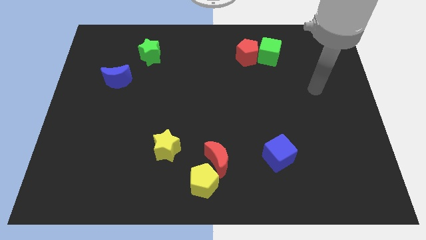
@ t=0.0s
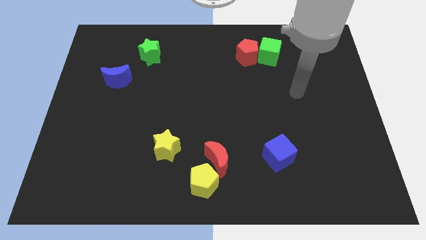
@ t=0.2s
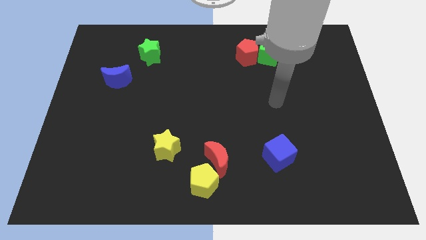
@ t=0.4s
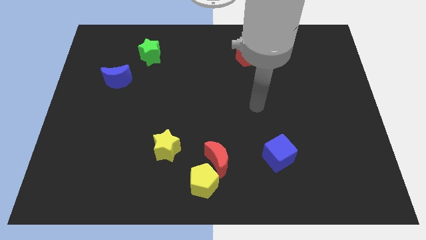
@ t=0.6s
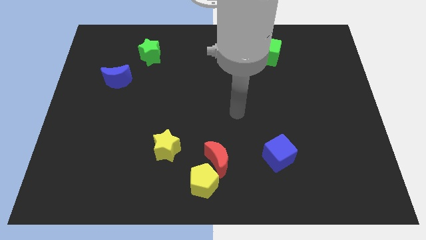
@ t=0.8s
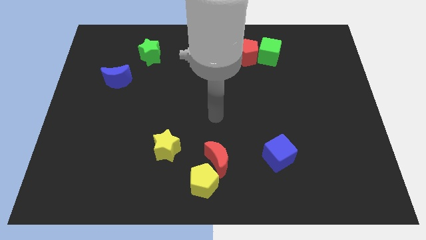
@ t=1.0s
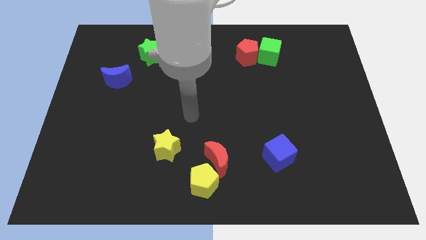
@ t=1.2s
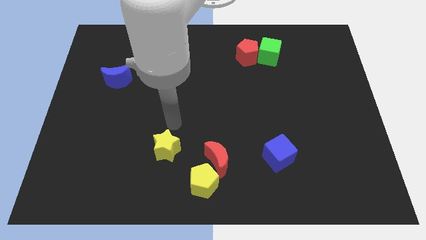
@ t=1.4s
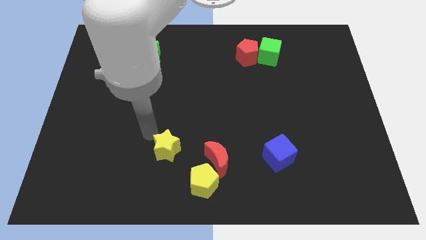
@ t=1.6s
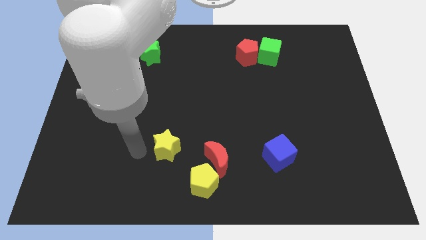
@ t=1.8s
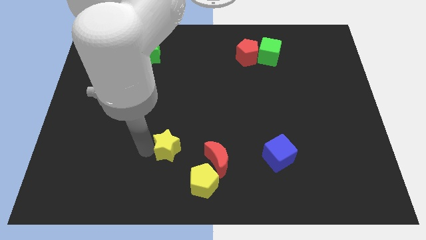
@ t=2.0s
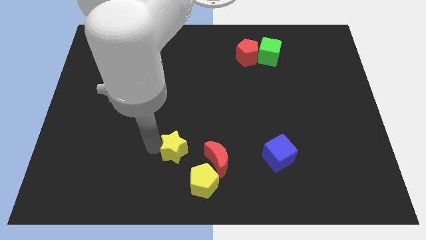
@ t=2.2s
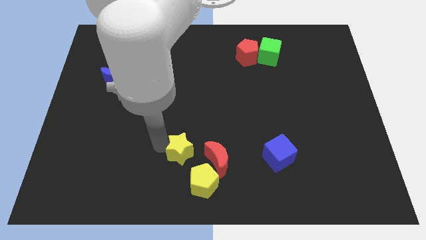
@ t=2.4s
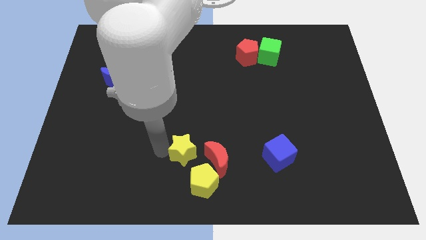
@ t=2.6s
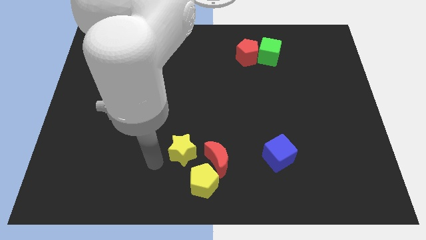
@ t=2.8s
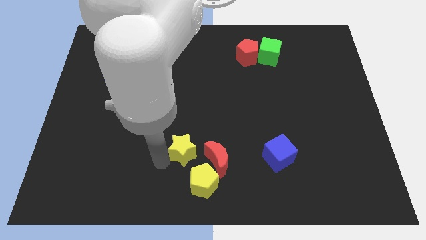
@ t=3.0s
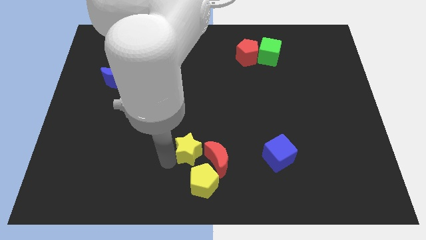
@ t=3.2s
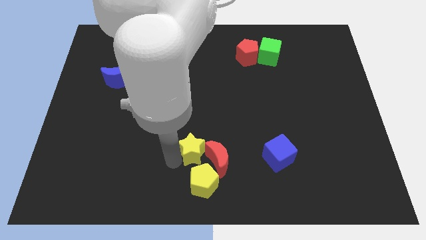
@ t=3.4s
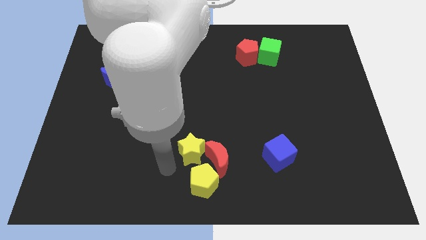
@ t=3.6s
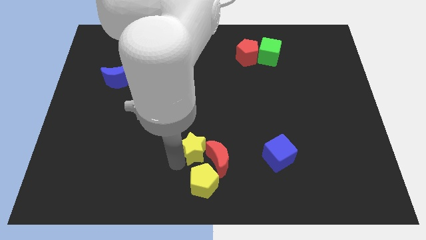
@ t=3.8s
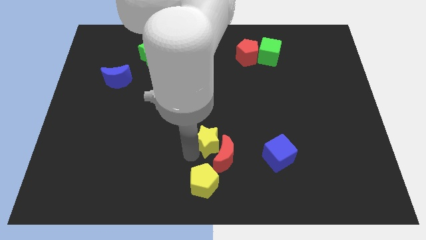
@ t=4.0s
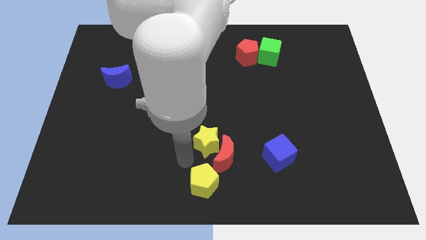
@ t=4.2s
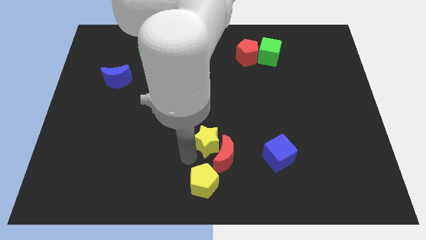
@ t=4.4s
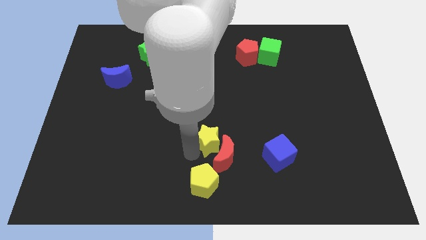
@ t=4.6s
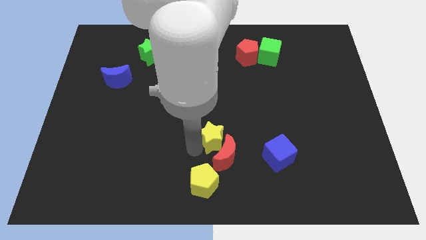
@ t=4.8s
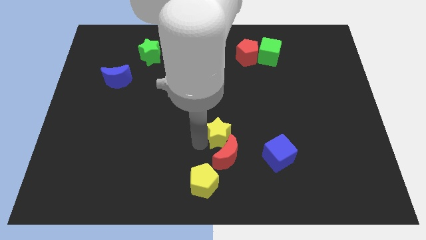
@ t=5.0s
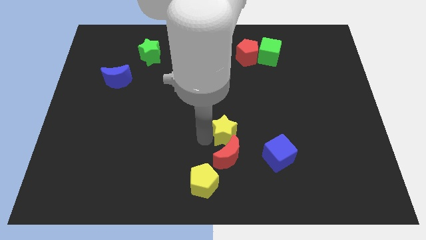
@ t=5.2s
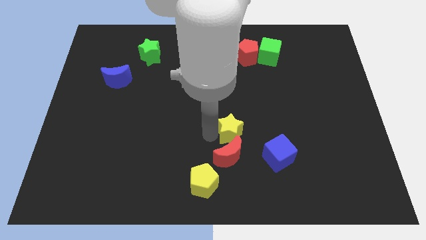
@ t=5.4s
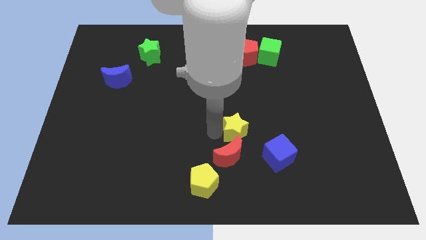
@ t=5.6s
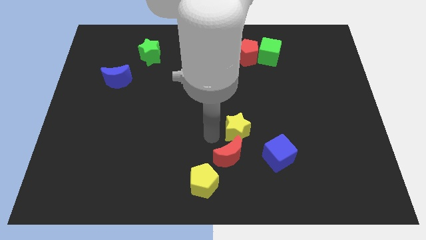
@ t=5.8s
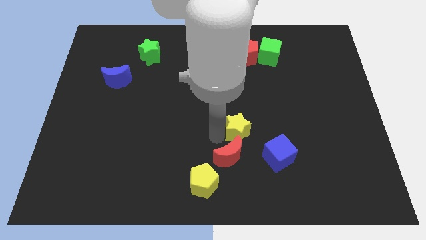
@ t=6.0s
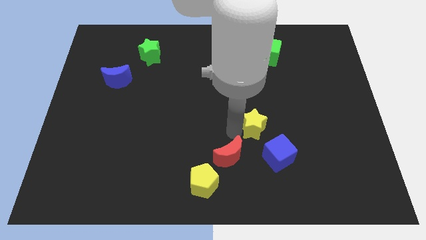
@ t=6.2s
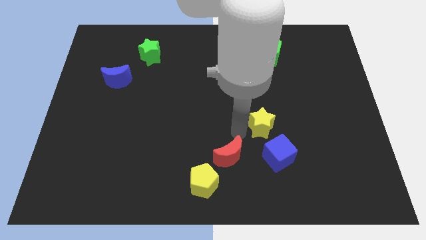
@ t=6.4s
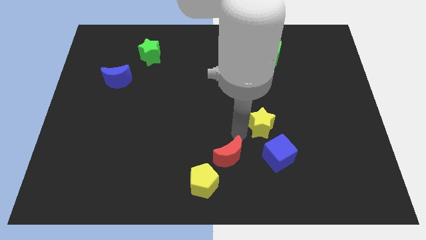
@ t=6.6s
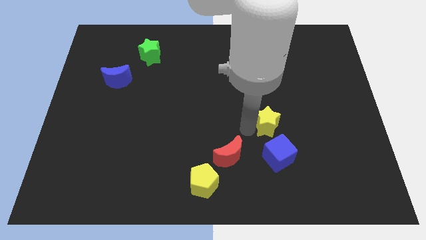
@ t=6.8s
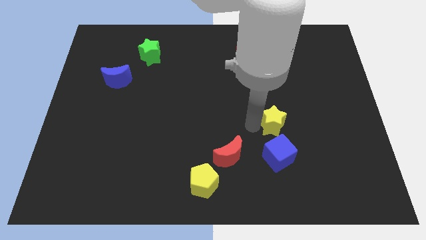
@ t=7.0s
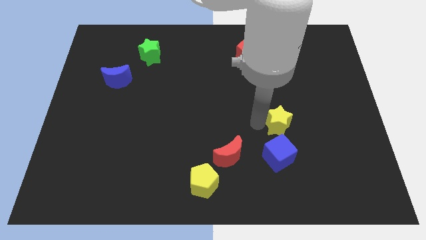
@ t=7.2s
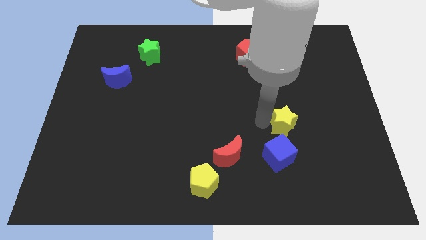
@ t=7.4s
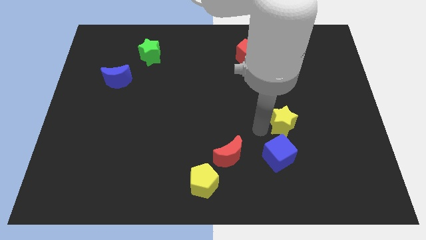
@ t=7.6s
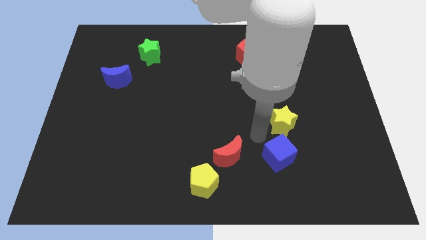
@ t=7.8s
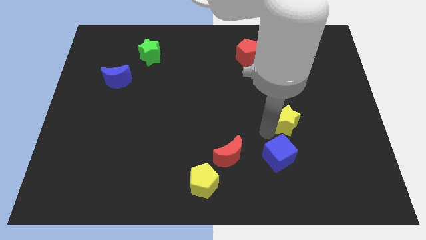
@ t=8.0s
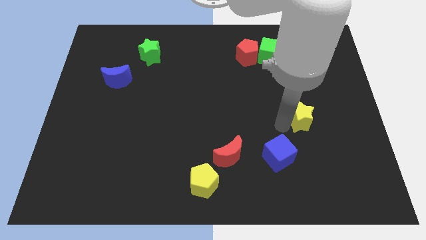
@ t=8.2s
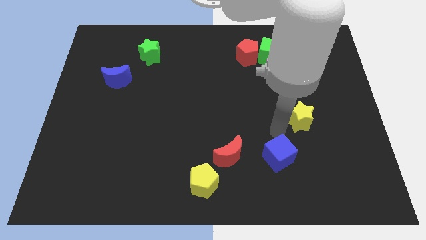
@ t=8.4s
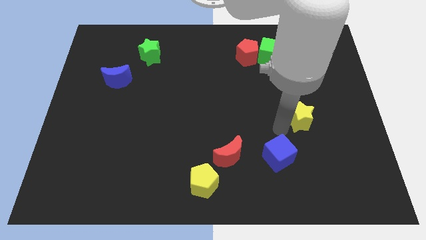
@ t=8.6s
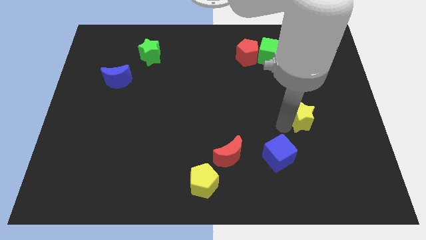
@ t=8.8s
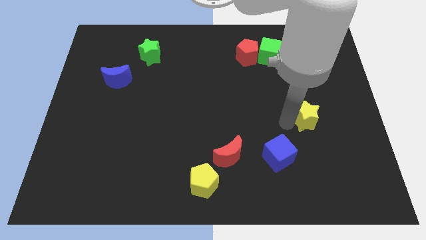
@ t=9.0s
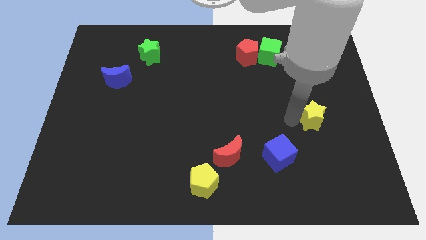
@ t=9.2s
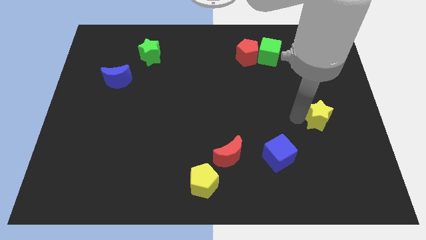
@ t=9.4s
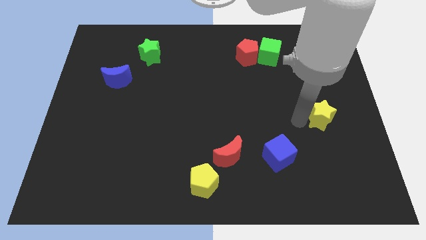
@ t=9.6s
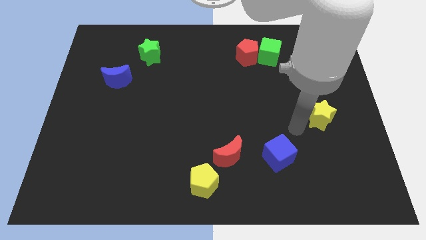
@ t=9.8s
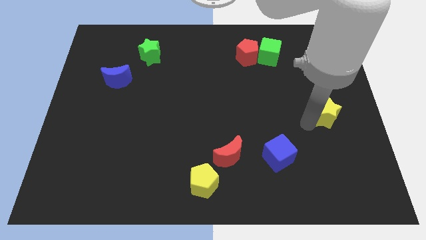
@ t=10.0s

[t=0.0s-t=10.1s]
put the yellow star to the right side

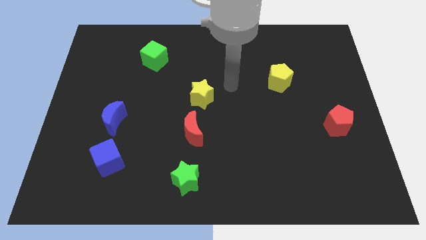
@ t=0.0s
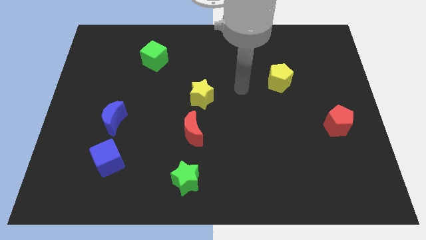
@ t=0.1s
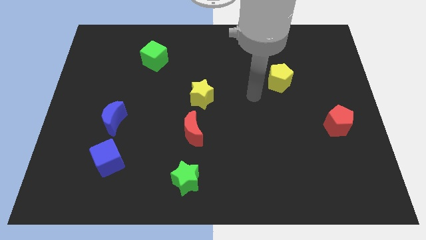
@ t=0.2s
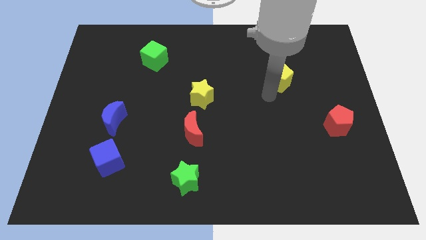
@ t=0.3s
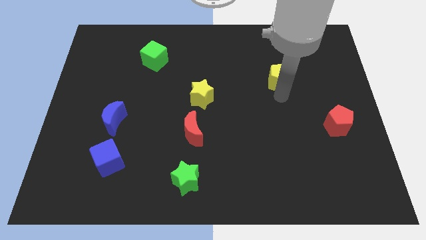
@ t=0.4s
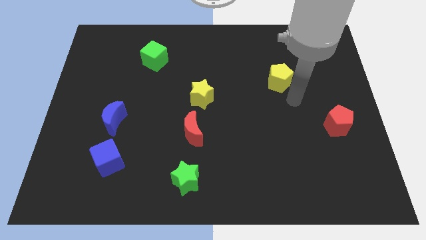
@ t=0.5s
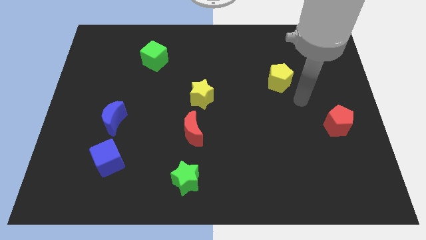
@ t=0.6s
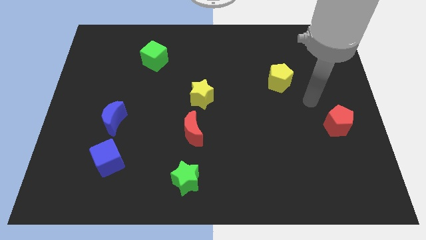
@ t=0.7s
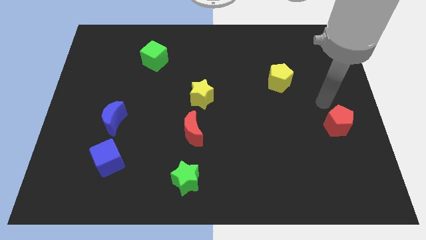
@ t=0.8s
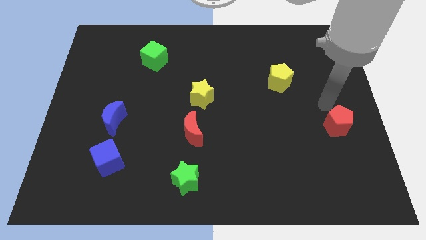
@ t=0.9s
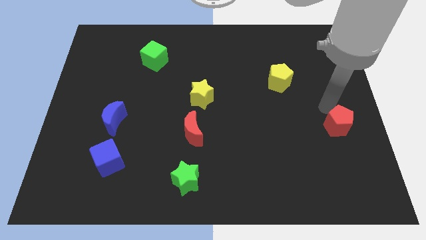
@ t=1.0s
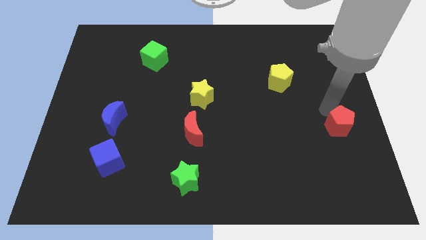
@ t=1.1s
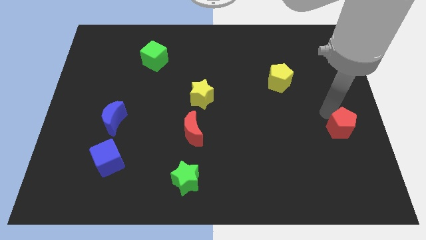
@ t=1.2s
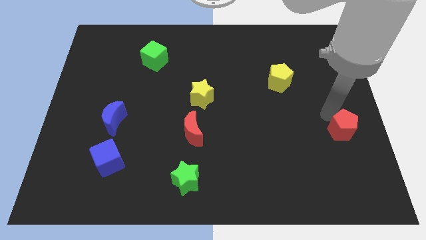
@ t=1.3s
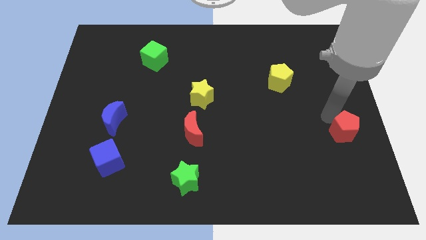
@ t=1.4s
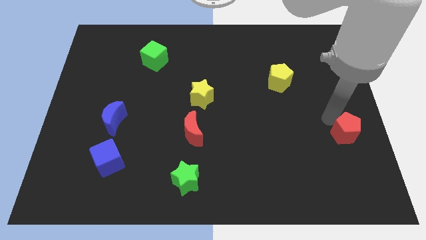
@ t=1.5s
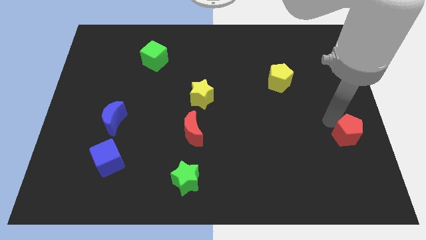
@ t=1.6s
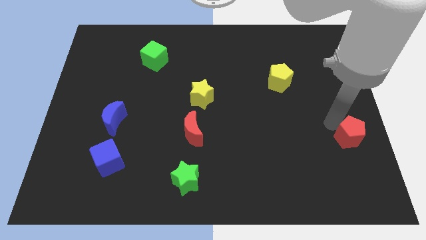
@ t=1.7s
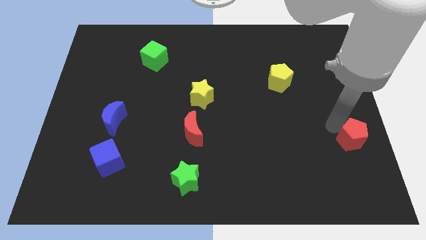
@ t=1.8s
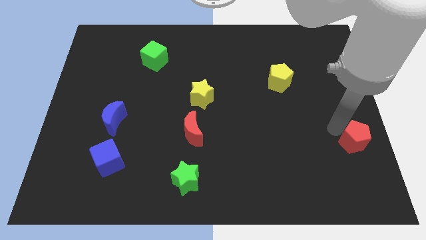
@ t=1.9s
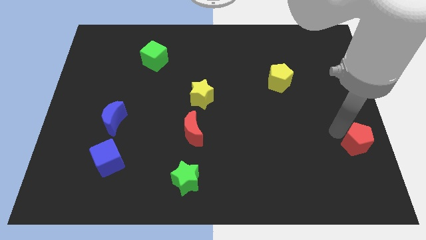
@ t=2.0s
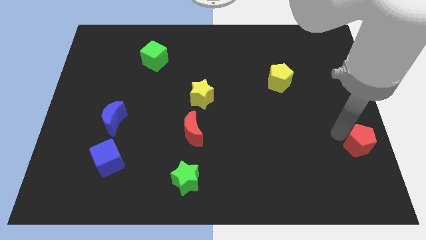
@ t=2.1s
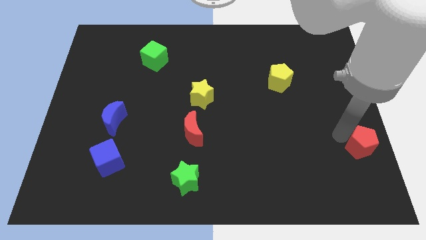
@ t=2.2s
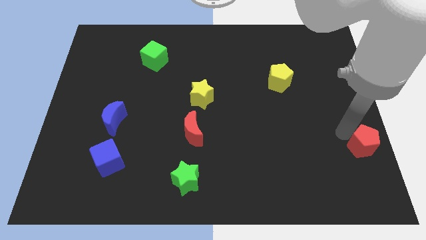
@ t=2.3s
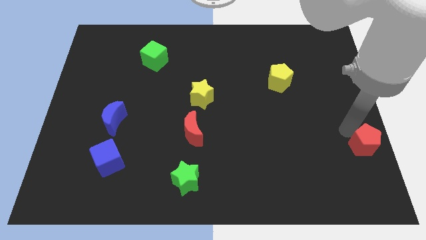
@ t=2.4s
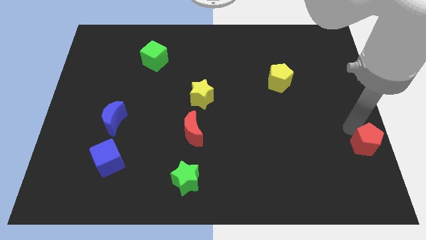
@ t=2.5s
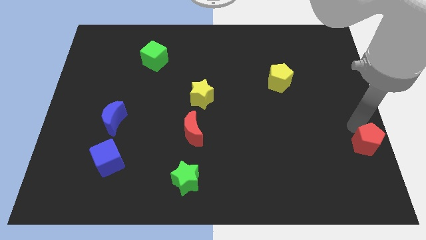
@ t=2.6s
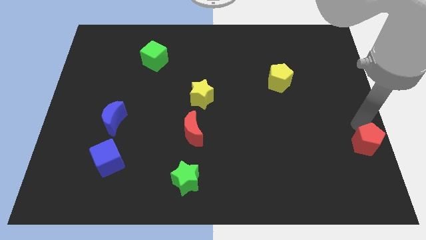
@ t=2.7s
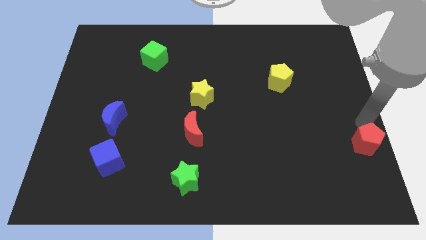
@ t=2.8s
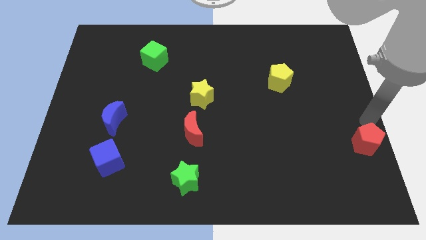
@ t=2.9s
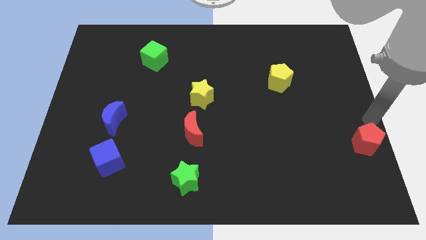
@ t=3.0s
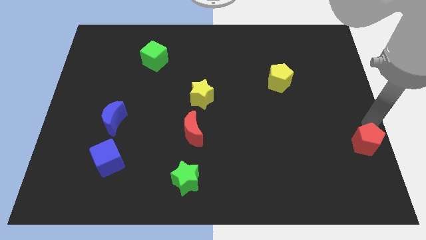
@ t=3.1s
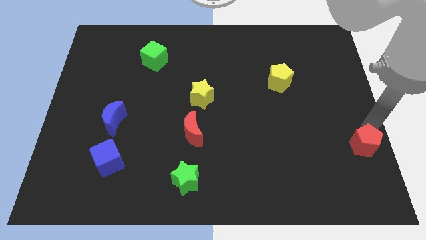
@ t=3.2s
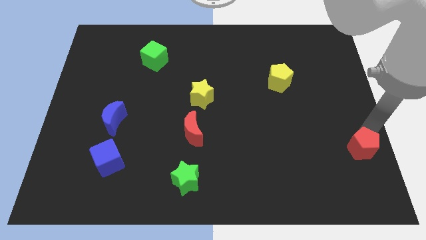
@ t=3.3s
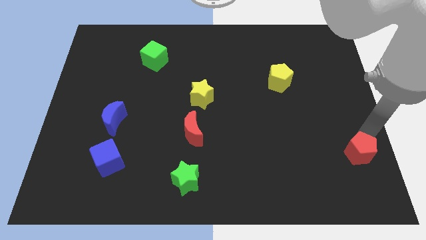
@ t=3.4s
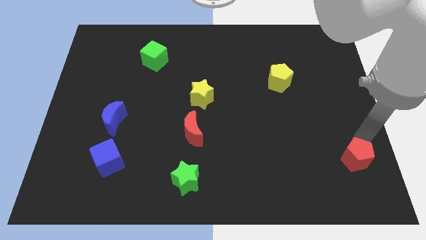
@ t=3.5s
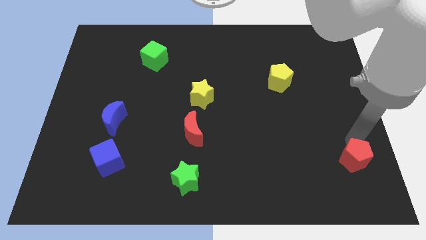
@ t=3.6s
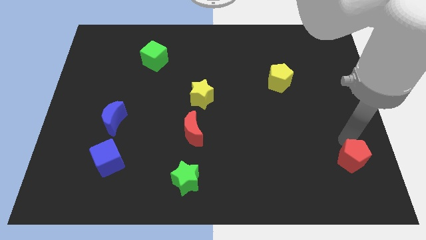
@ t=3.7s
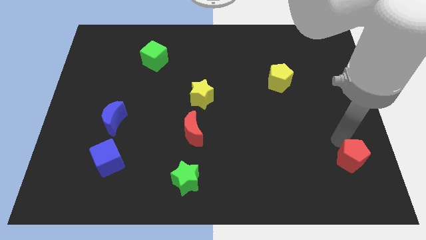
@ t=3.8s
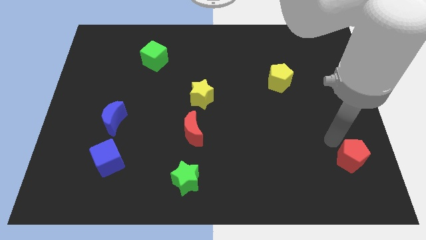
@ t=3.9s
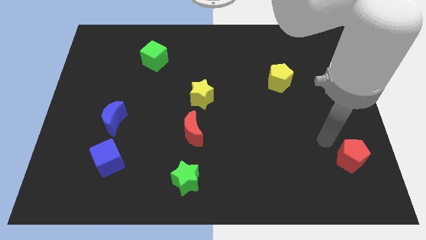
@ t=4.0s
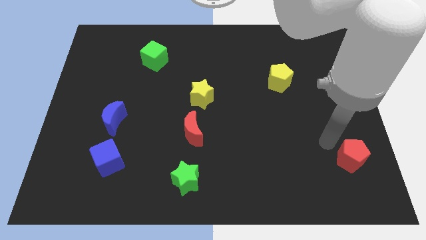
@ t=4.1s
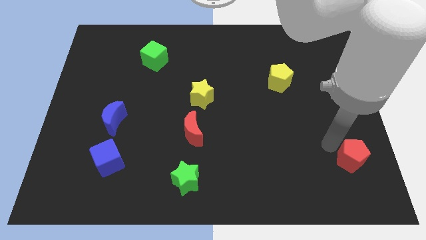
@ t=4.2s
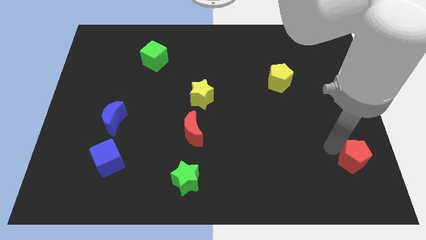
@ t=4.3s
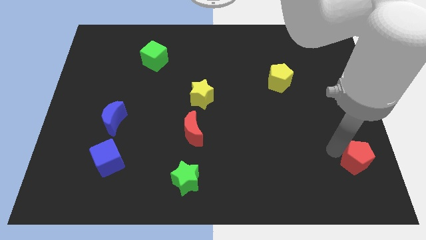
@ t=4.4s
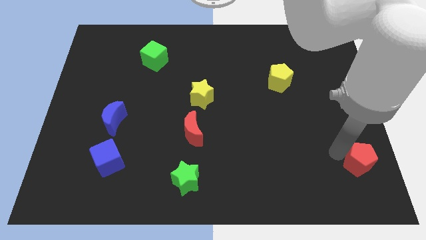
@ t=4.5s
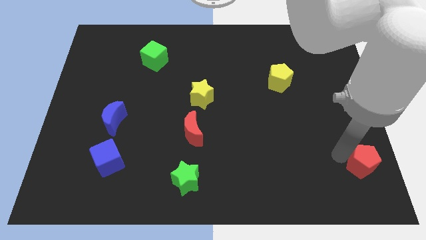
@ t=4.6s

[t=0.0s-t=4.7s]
push the red pentagon to the bottom right
